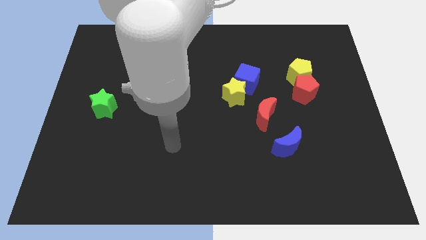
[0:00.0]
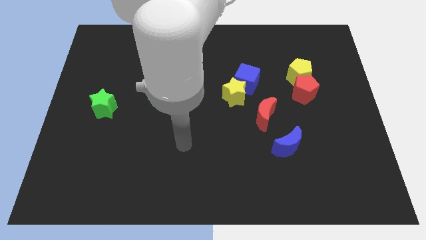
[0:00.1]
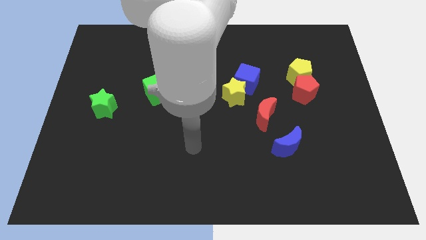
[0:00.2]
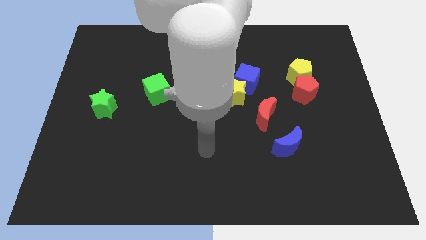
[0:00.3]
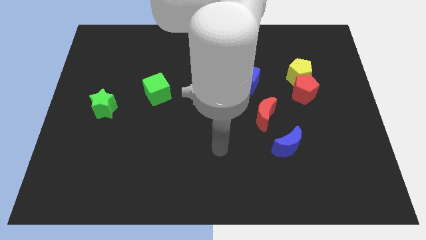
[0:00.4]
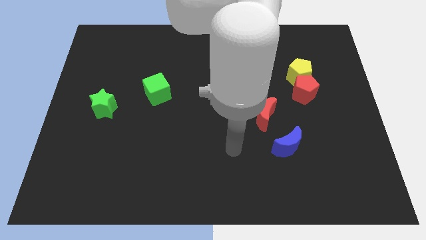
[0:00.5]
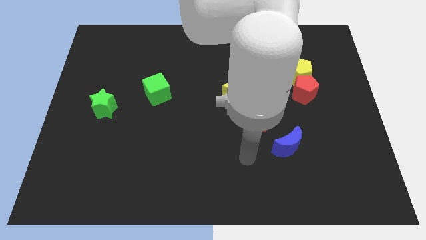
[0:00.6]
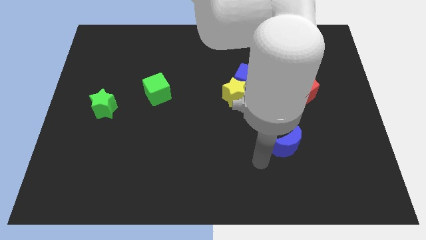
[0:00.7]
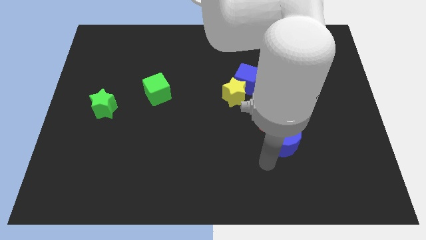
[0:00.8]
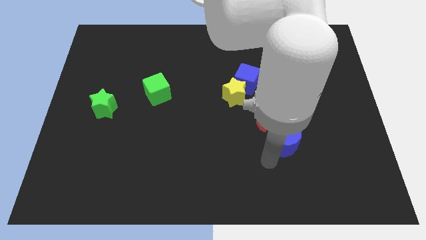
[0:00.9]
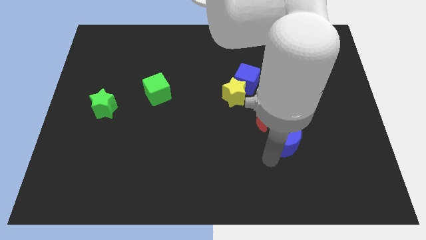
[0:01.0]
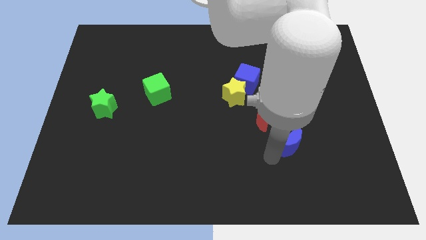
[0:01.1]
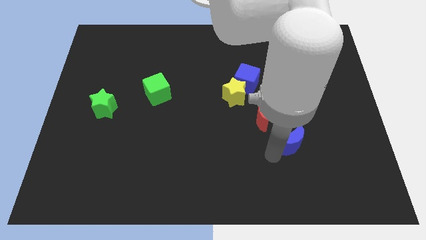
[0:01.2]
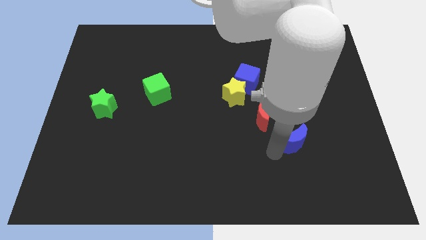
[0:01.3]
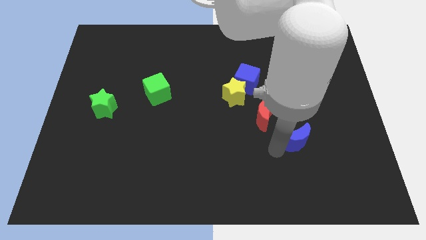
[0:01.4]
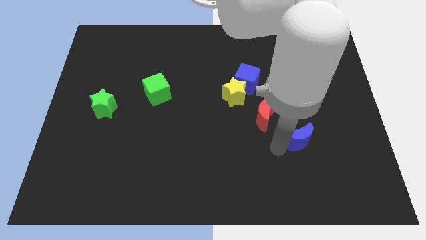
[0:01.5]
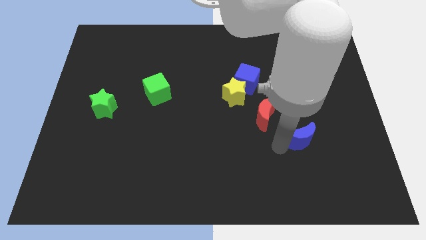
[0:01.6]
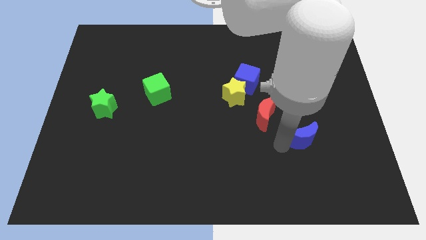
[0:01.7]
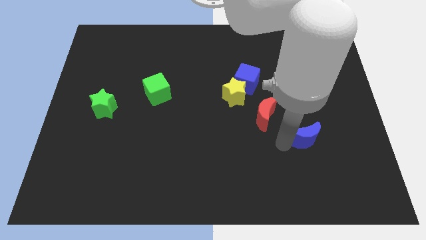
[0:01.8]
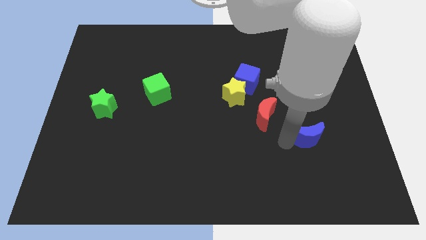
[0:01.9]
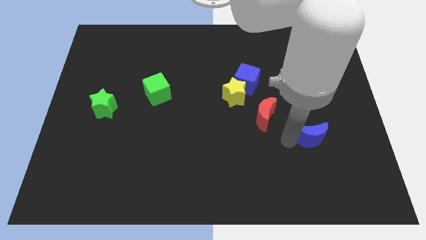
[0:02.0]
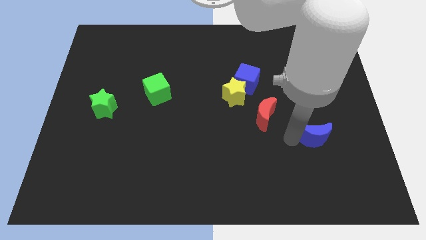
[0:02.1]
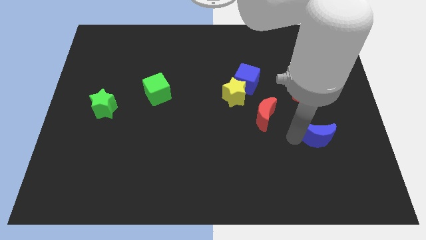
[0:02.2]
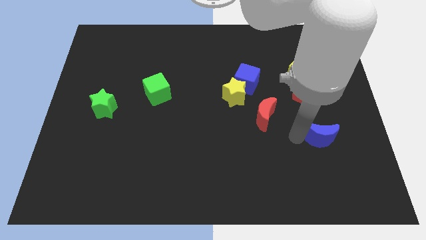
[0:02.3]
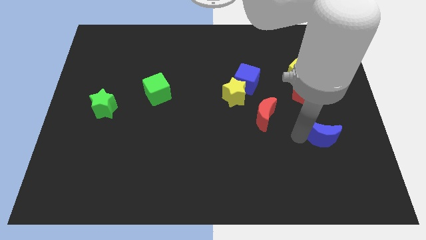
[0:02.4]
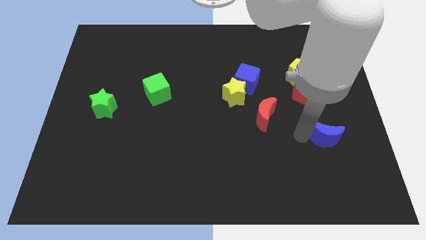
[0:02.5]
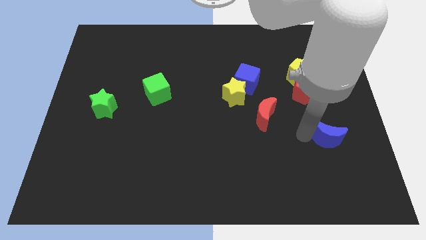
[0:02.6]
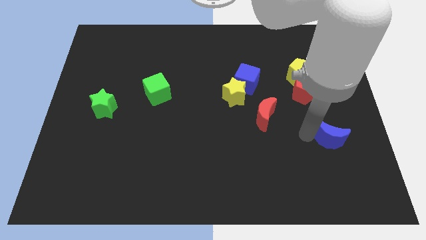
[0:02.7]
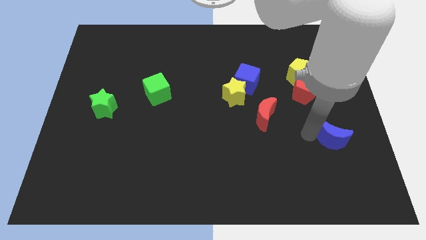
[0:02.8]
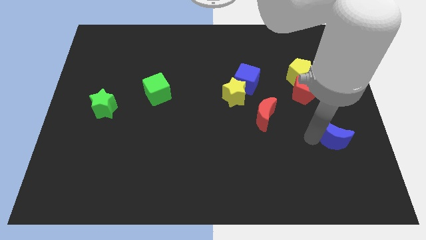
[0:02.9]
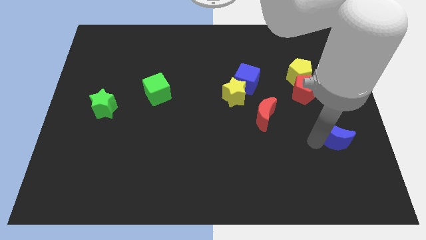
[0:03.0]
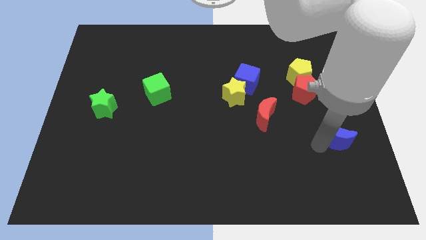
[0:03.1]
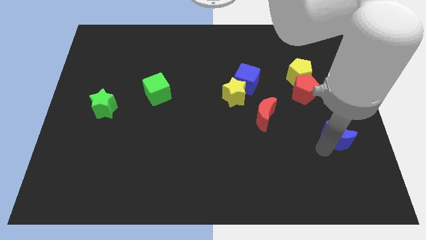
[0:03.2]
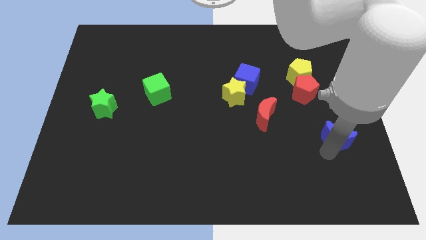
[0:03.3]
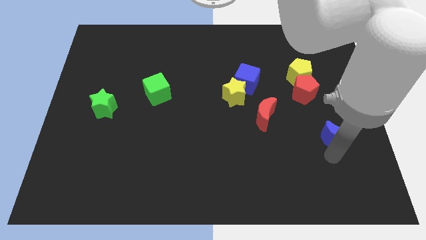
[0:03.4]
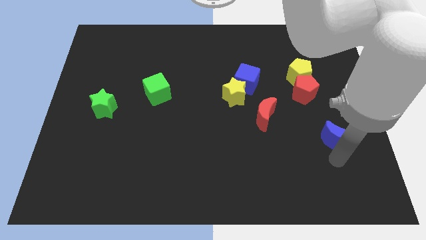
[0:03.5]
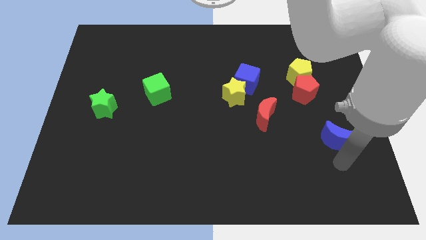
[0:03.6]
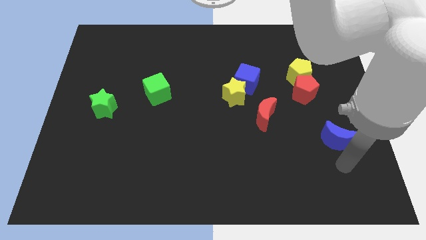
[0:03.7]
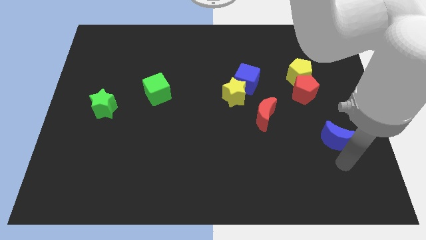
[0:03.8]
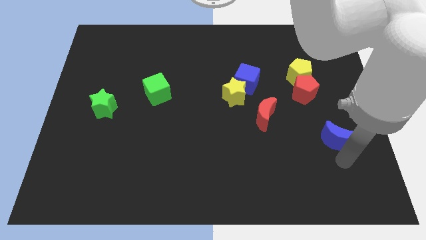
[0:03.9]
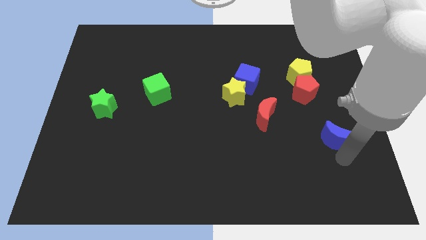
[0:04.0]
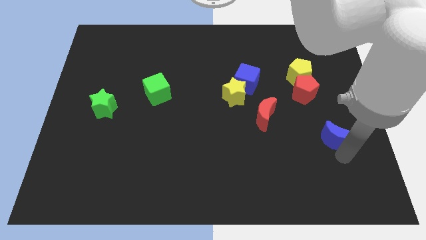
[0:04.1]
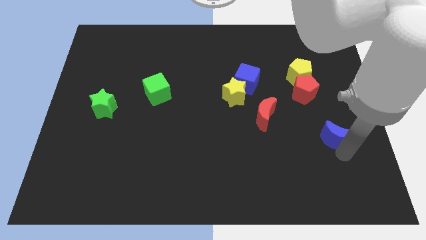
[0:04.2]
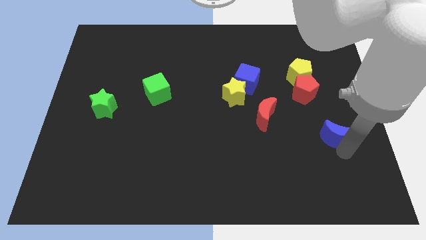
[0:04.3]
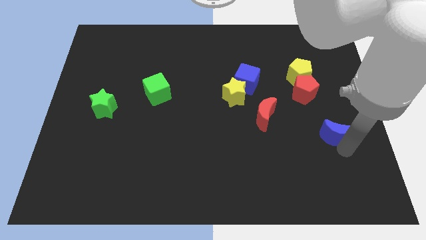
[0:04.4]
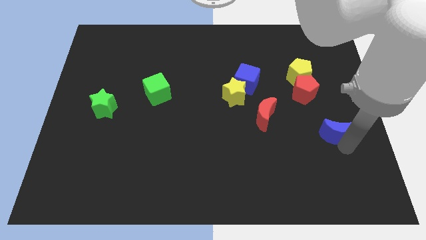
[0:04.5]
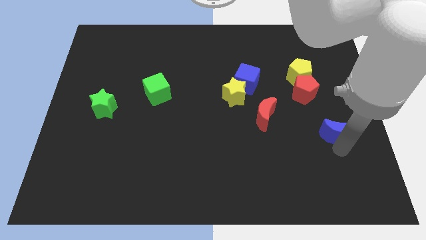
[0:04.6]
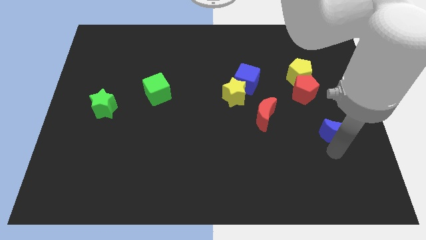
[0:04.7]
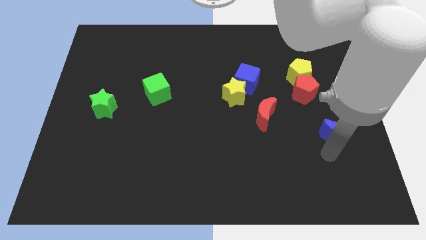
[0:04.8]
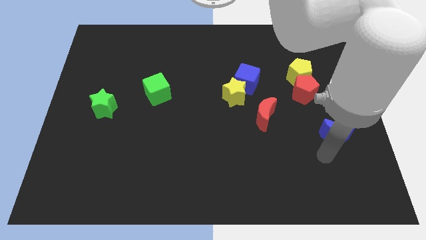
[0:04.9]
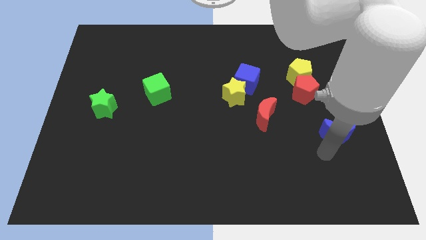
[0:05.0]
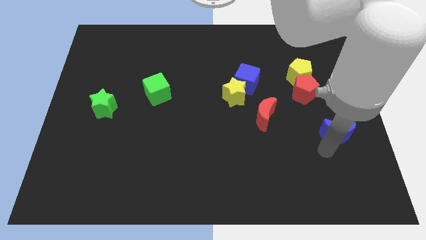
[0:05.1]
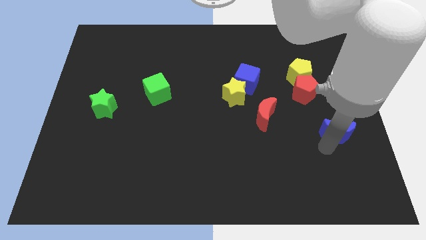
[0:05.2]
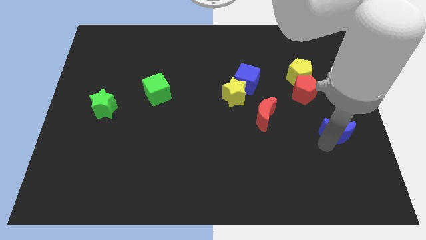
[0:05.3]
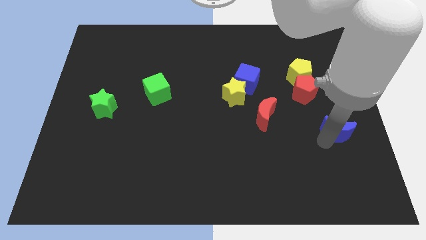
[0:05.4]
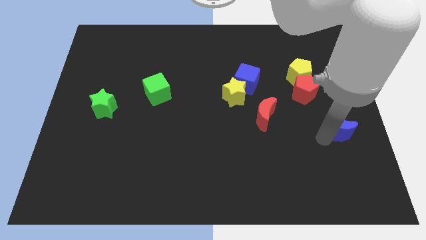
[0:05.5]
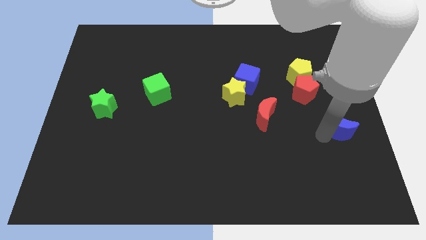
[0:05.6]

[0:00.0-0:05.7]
push the blue moon to the right side of the board

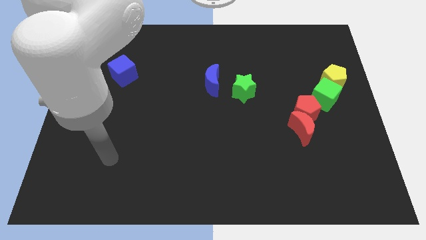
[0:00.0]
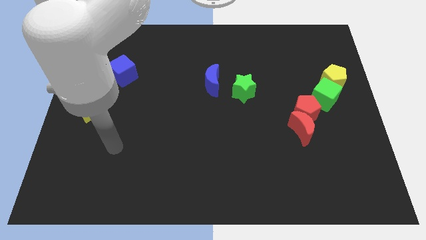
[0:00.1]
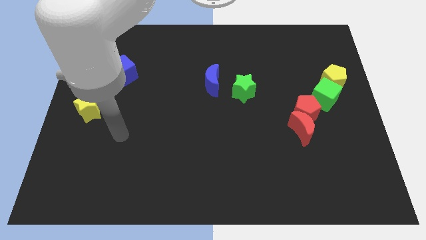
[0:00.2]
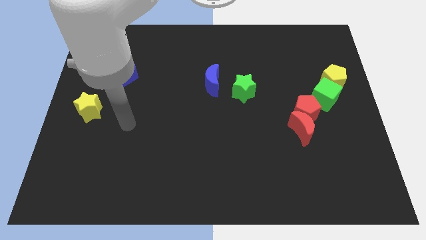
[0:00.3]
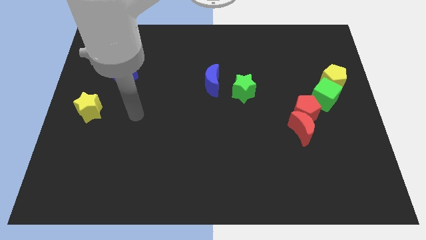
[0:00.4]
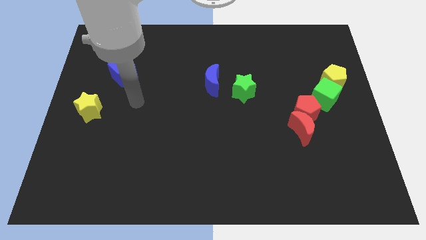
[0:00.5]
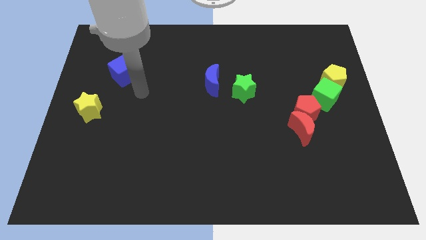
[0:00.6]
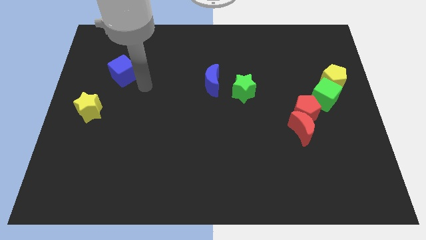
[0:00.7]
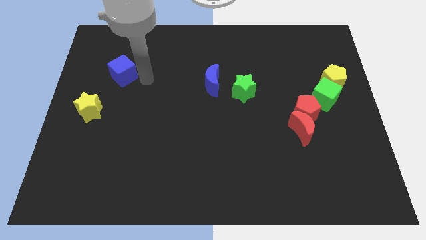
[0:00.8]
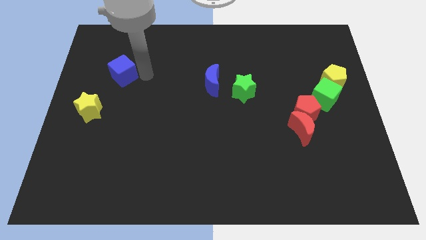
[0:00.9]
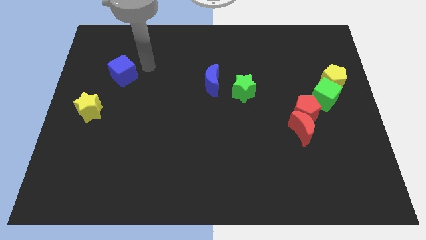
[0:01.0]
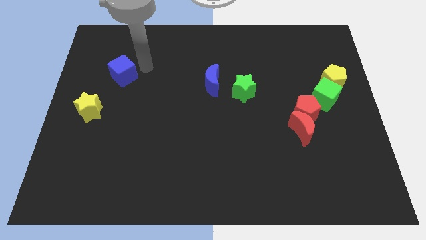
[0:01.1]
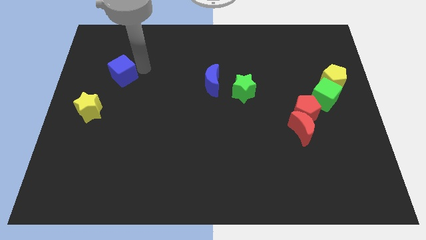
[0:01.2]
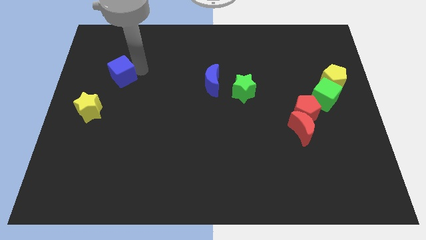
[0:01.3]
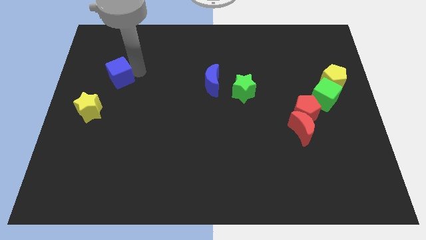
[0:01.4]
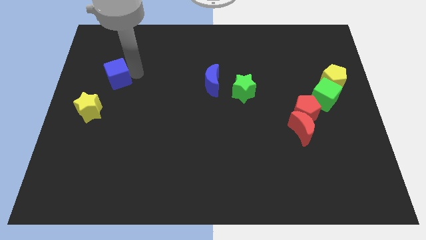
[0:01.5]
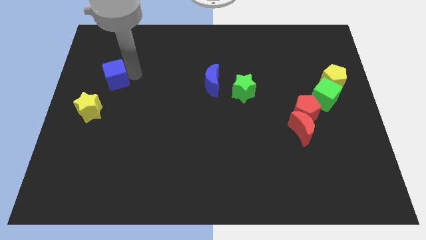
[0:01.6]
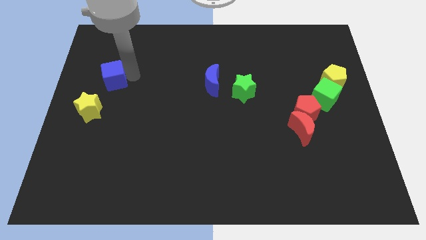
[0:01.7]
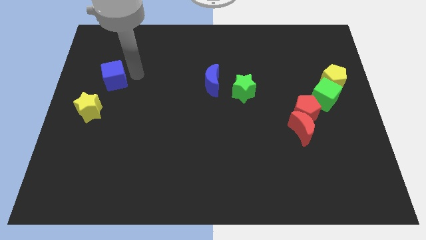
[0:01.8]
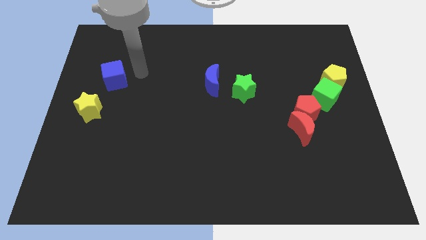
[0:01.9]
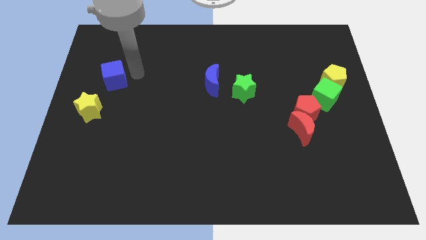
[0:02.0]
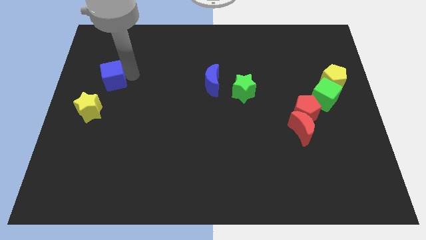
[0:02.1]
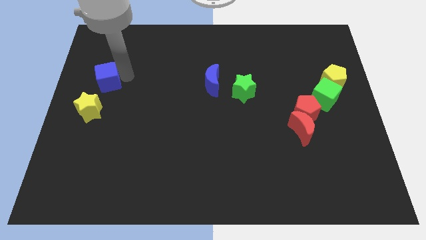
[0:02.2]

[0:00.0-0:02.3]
move the blue cube to the left side
